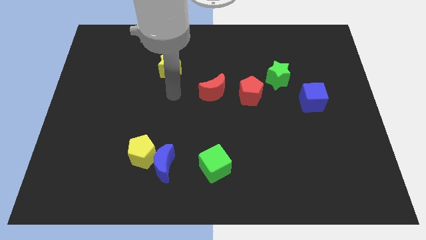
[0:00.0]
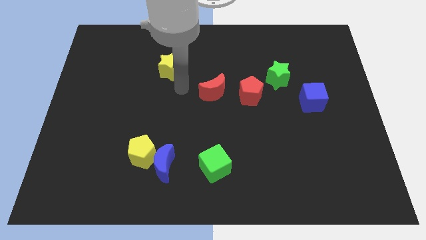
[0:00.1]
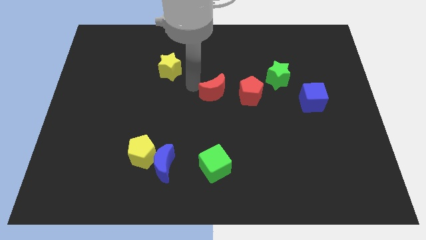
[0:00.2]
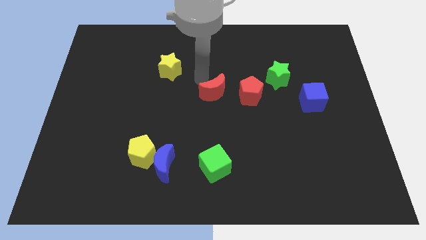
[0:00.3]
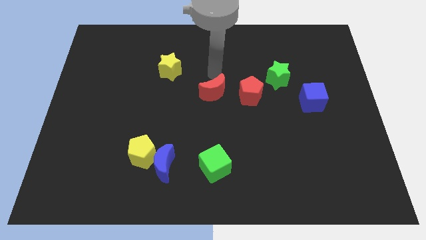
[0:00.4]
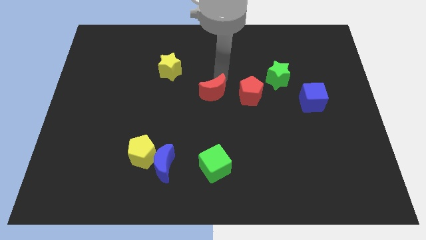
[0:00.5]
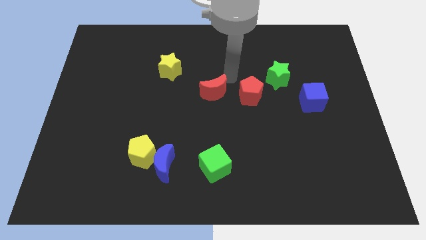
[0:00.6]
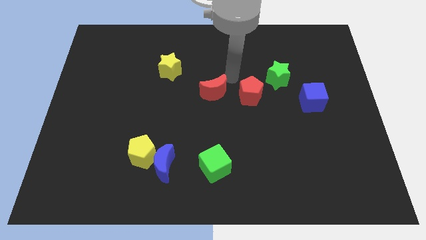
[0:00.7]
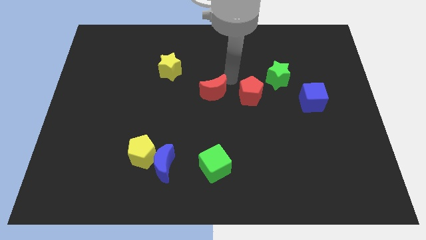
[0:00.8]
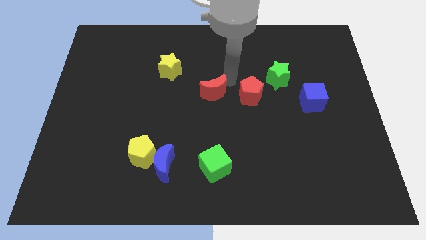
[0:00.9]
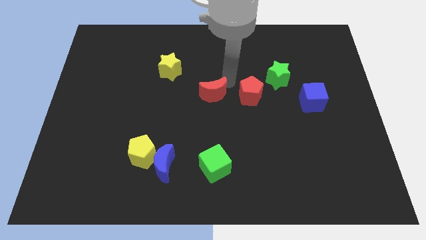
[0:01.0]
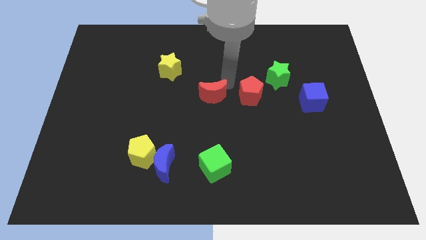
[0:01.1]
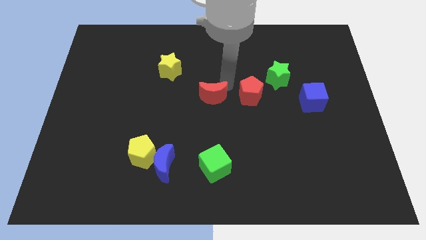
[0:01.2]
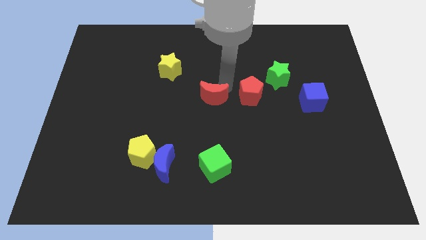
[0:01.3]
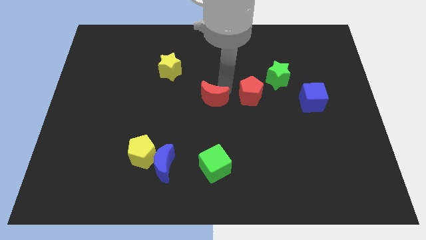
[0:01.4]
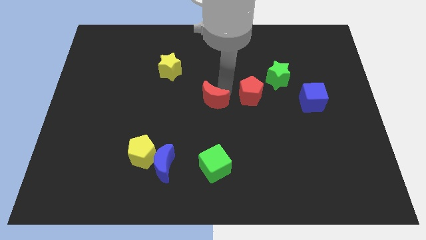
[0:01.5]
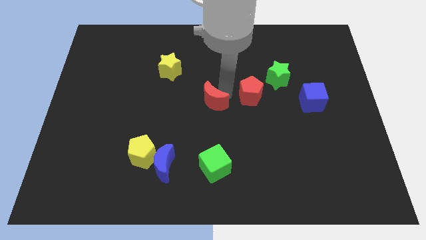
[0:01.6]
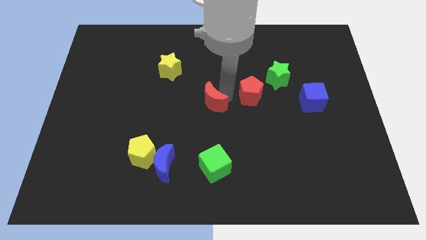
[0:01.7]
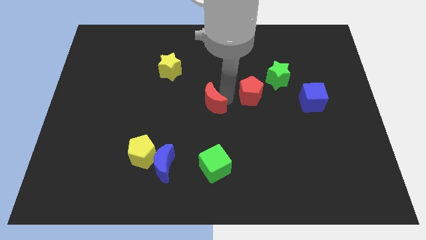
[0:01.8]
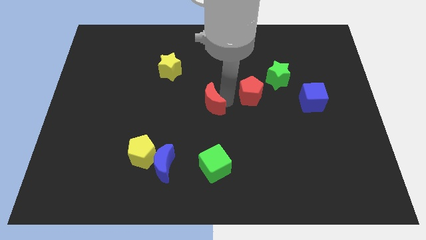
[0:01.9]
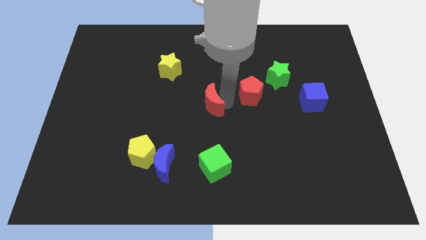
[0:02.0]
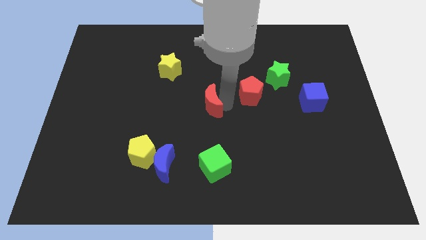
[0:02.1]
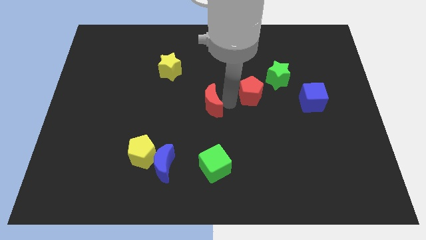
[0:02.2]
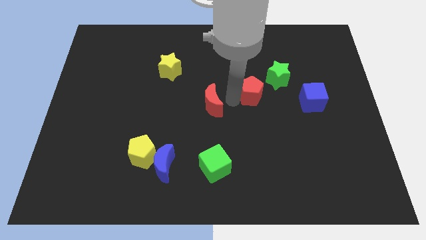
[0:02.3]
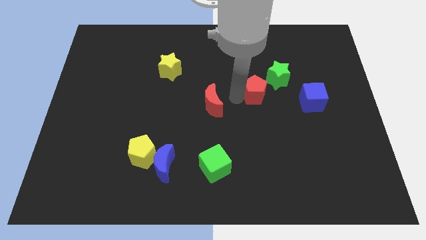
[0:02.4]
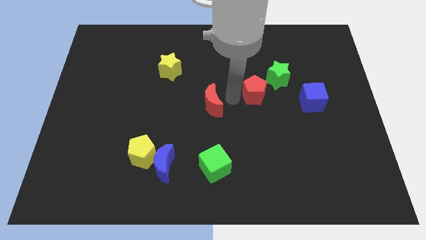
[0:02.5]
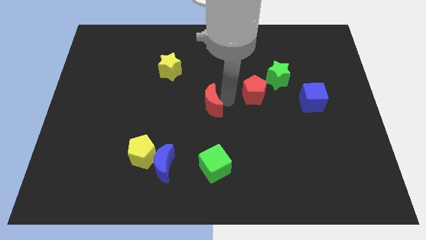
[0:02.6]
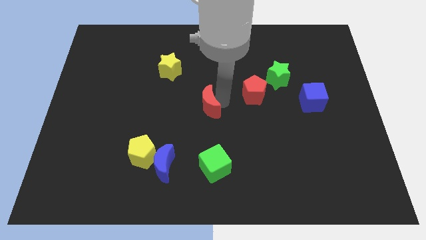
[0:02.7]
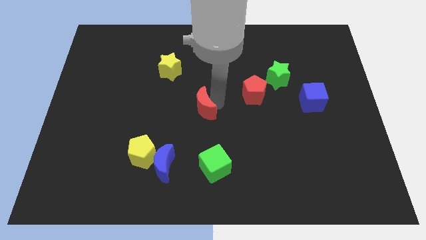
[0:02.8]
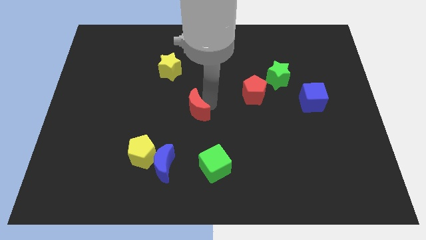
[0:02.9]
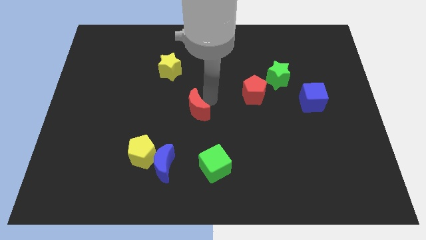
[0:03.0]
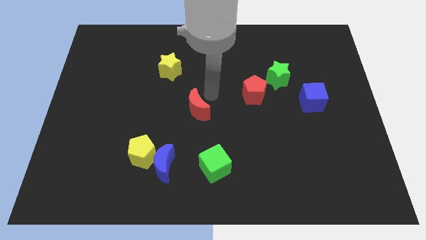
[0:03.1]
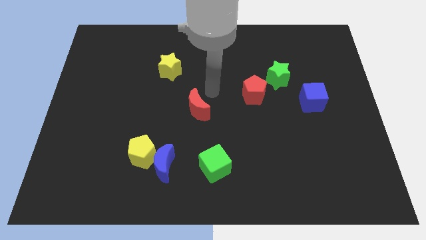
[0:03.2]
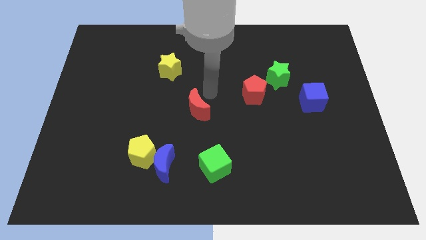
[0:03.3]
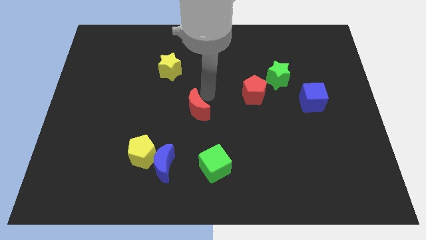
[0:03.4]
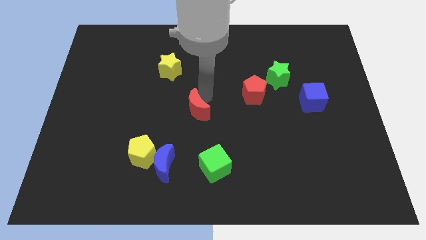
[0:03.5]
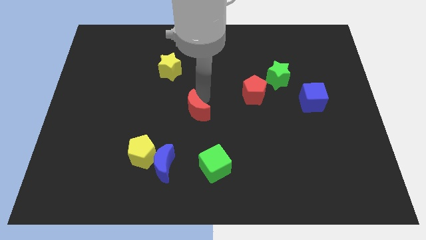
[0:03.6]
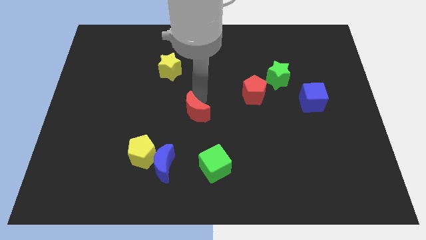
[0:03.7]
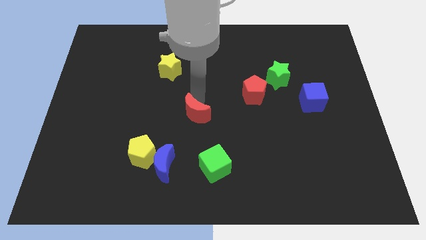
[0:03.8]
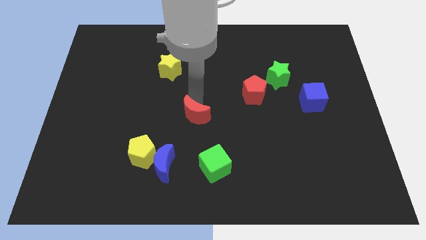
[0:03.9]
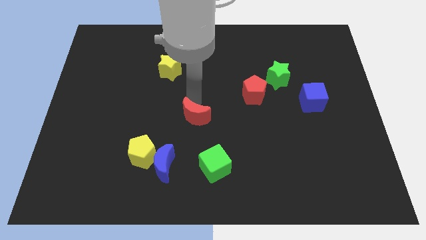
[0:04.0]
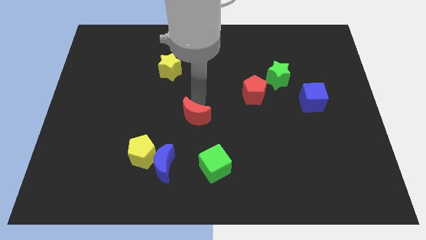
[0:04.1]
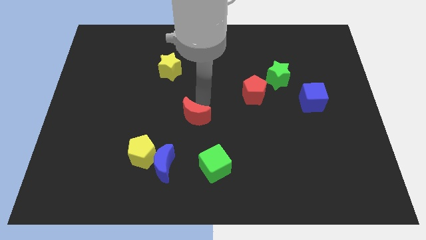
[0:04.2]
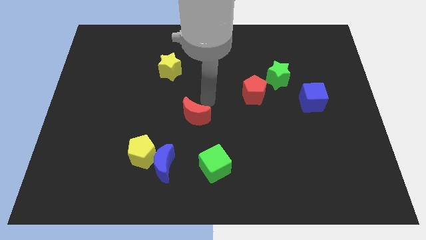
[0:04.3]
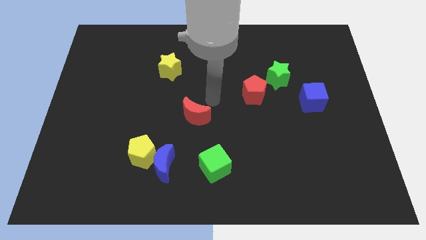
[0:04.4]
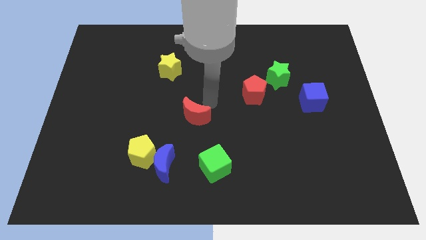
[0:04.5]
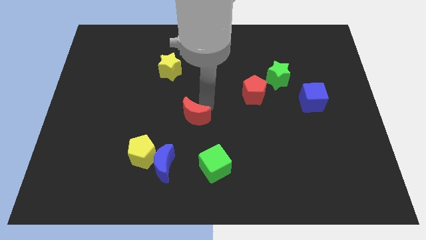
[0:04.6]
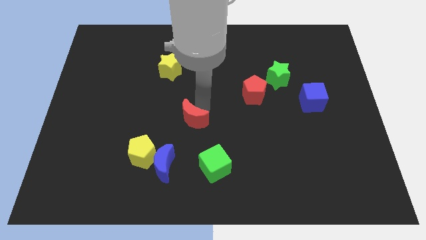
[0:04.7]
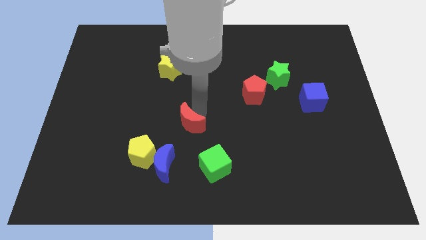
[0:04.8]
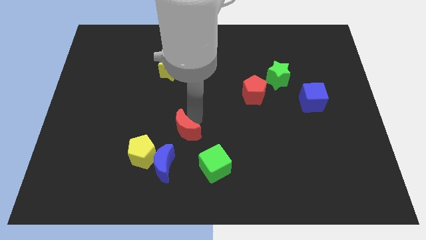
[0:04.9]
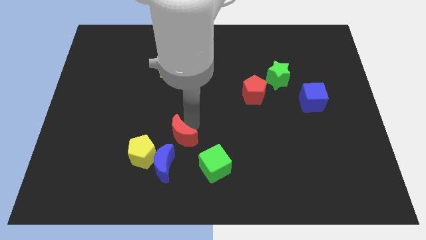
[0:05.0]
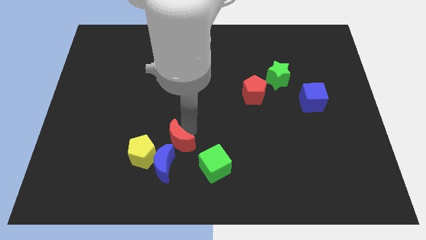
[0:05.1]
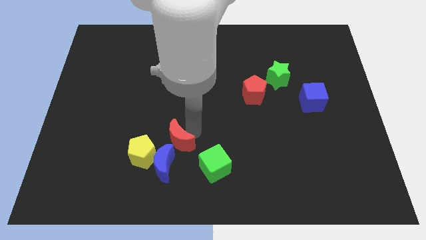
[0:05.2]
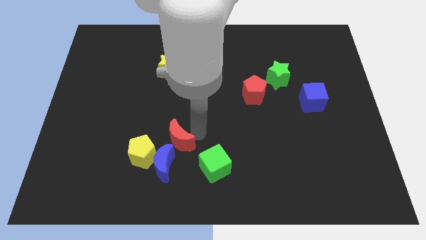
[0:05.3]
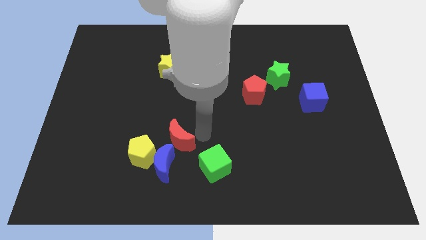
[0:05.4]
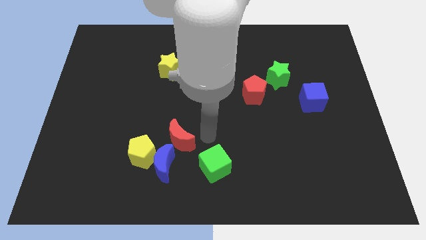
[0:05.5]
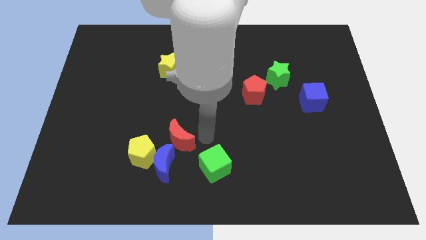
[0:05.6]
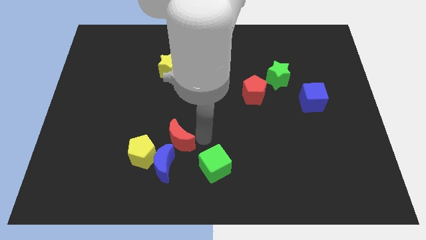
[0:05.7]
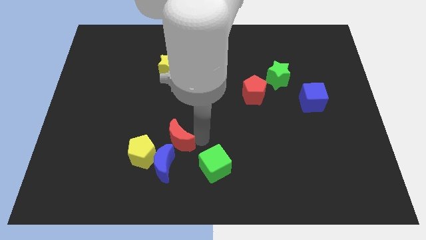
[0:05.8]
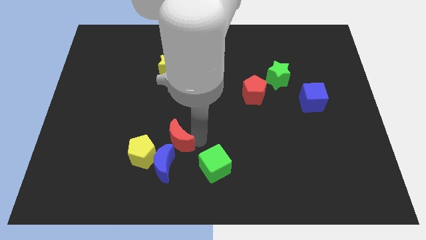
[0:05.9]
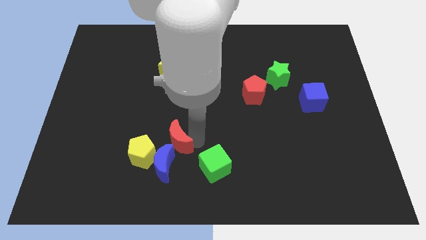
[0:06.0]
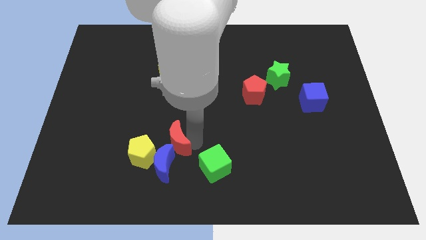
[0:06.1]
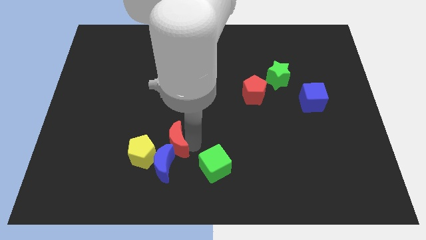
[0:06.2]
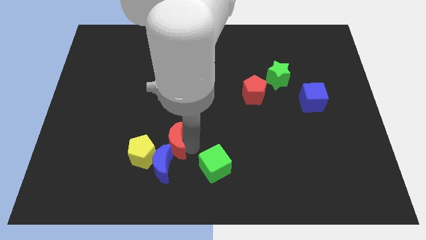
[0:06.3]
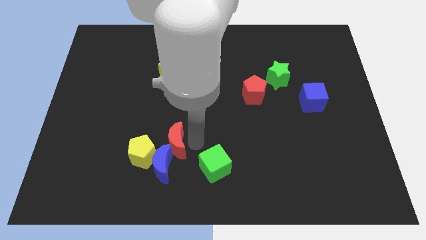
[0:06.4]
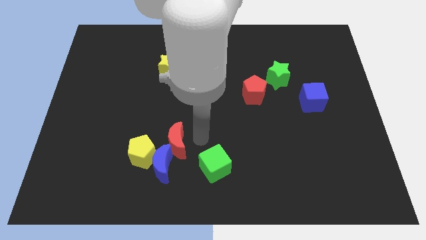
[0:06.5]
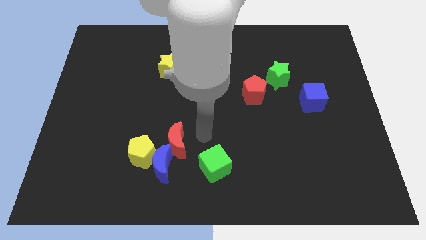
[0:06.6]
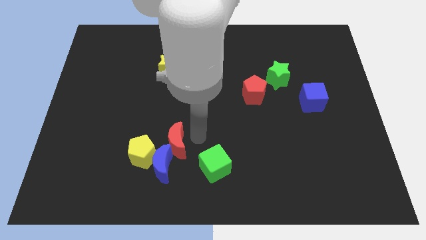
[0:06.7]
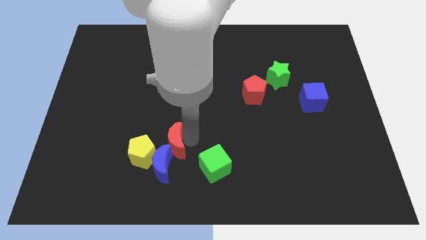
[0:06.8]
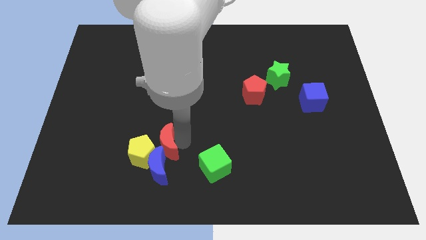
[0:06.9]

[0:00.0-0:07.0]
slide the red moon towards the yellow pentagon

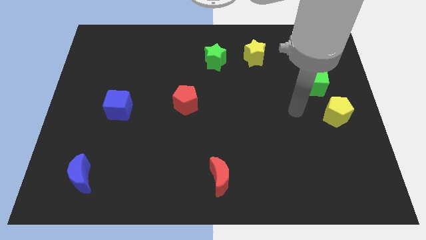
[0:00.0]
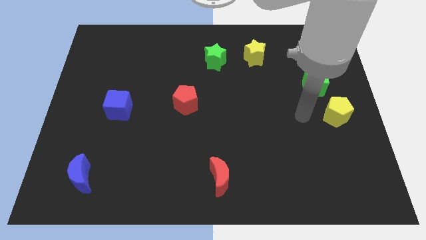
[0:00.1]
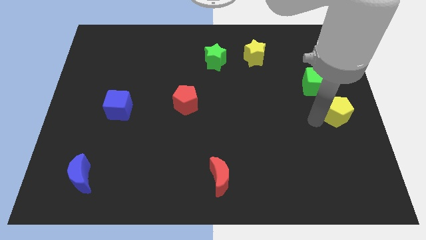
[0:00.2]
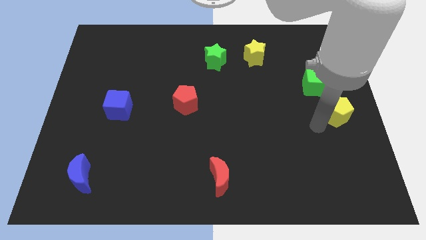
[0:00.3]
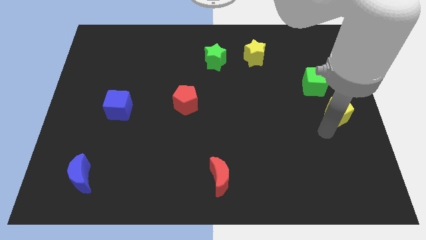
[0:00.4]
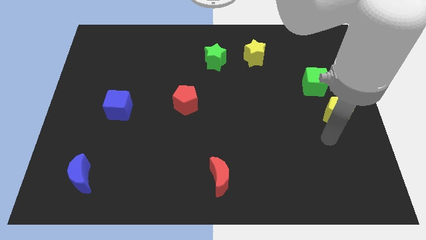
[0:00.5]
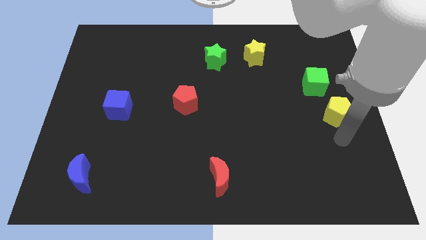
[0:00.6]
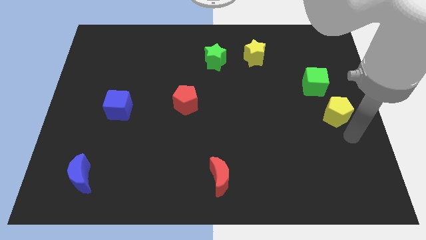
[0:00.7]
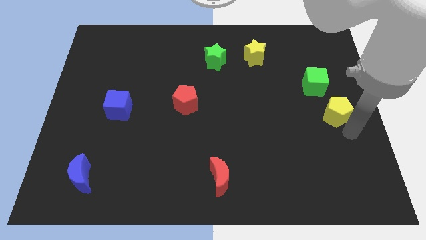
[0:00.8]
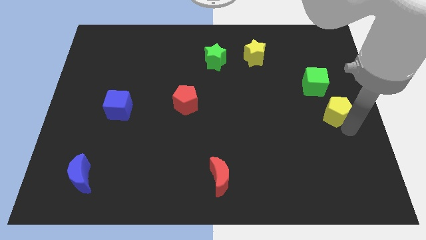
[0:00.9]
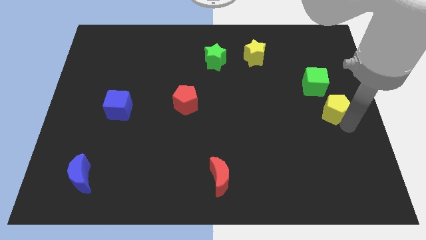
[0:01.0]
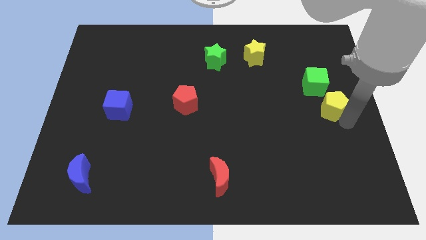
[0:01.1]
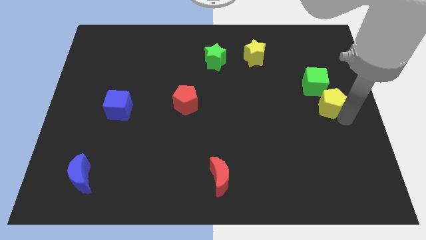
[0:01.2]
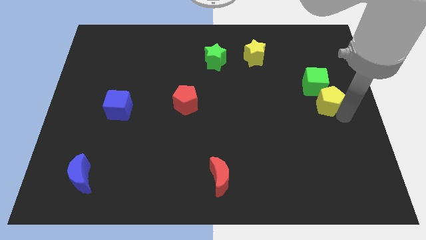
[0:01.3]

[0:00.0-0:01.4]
slide the yellow pentagon next to the green cube
